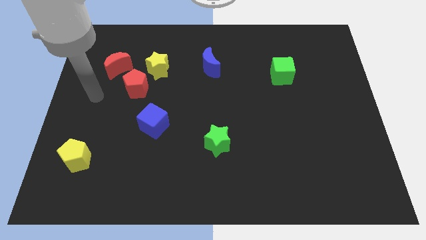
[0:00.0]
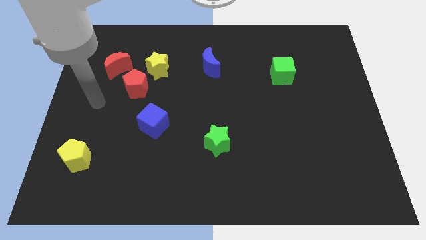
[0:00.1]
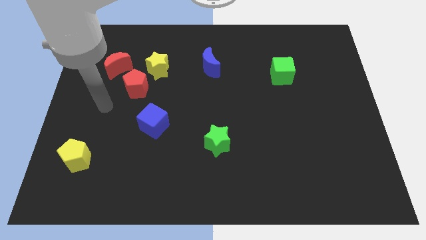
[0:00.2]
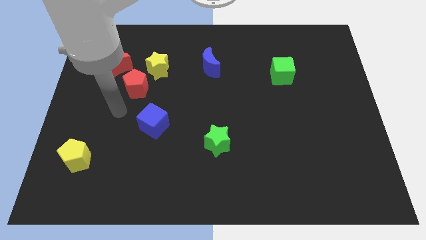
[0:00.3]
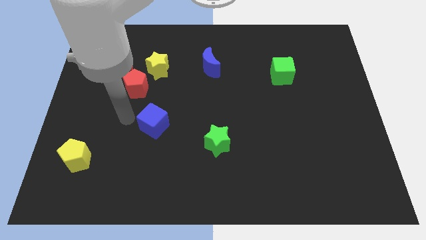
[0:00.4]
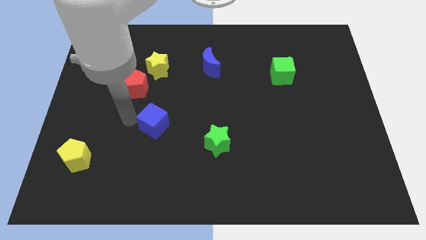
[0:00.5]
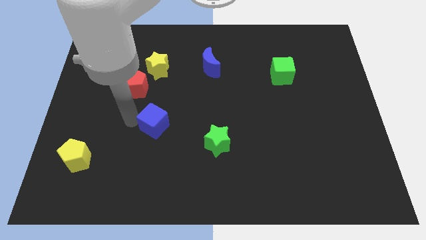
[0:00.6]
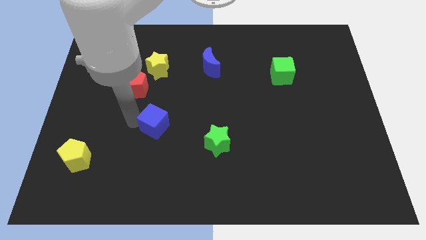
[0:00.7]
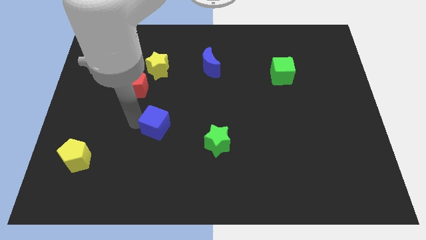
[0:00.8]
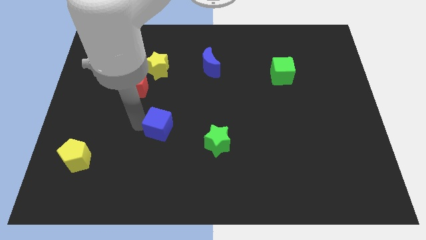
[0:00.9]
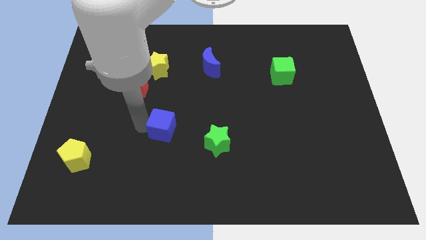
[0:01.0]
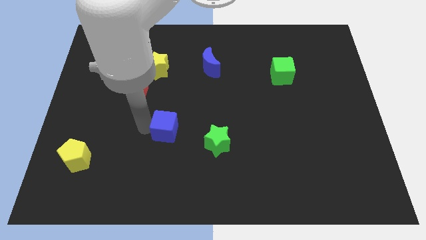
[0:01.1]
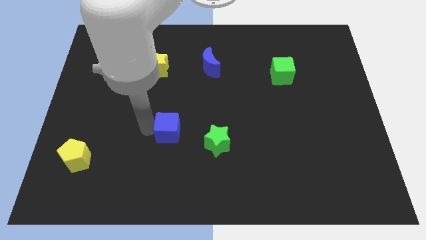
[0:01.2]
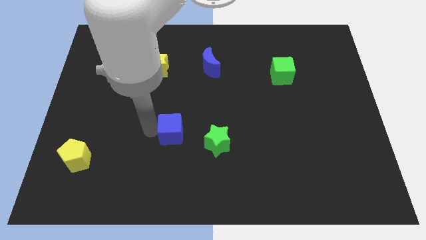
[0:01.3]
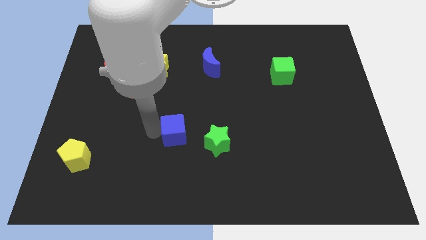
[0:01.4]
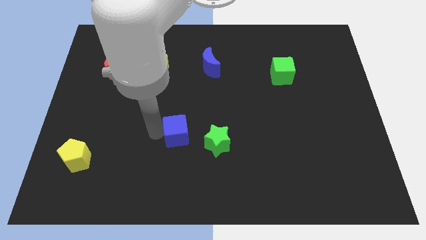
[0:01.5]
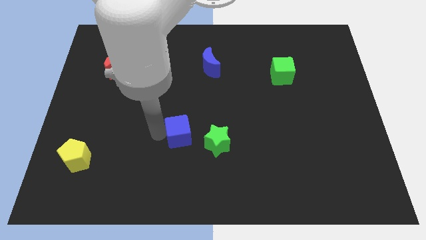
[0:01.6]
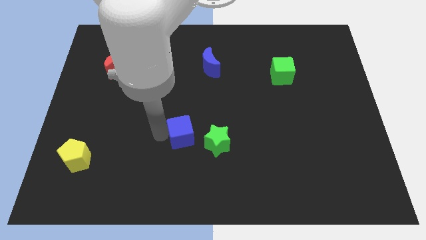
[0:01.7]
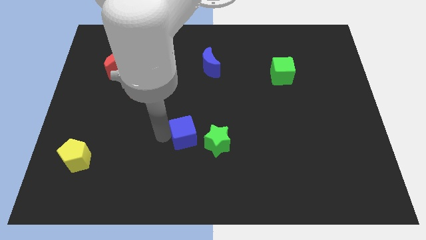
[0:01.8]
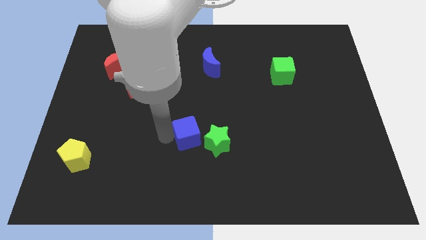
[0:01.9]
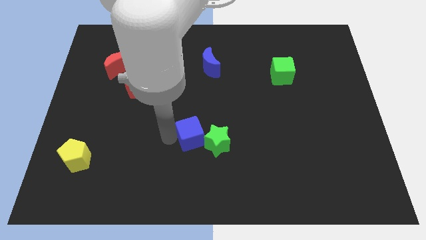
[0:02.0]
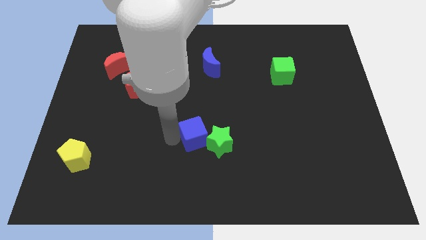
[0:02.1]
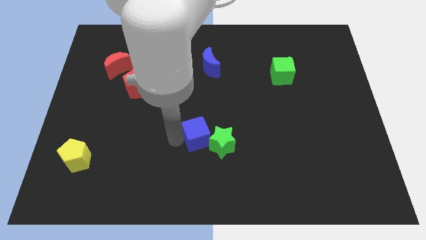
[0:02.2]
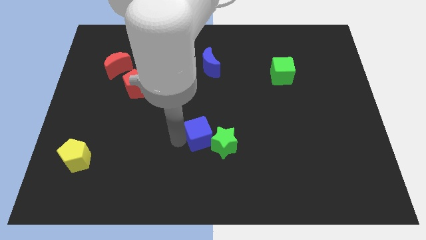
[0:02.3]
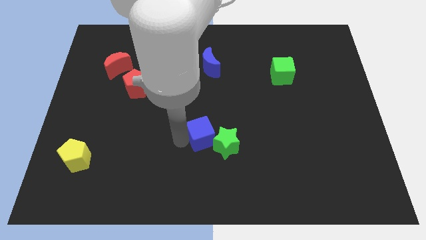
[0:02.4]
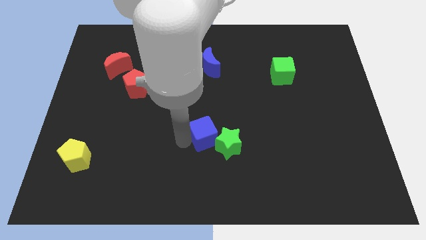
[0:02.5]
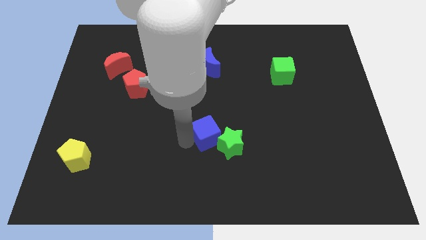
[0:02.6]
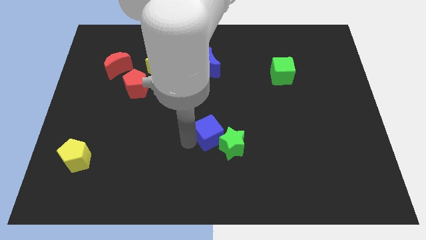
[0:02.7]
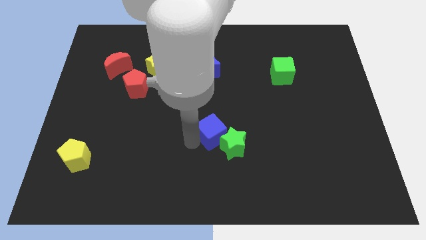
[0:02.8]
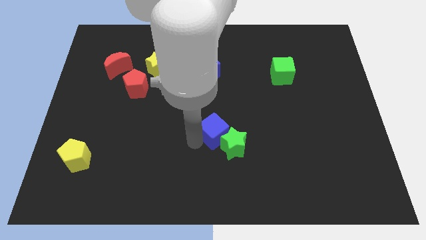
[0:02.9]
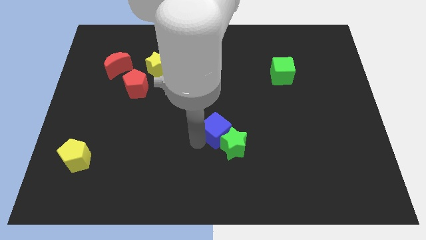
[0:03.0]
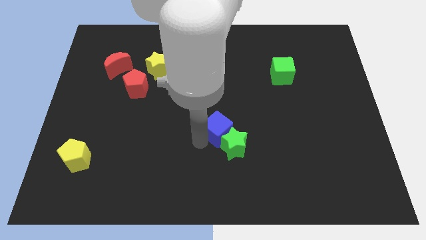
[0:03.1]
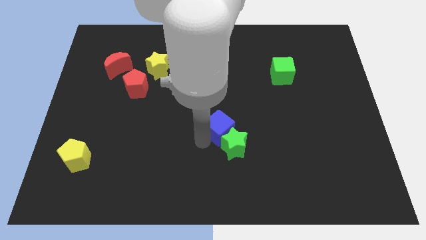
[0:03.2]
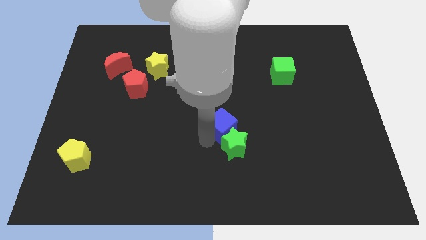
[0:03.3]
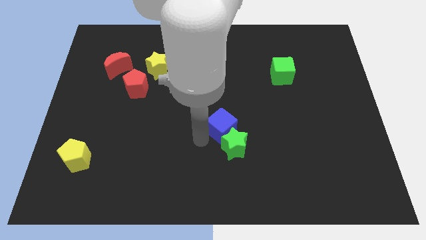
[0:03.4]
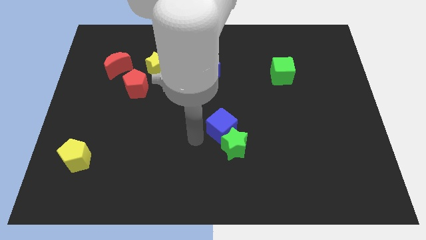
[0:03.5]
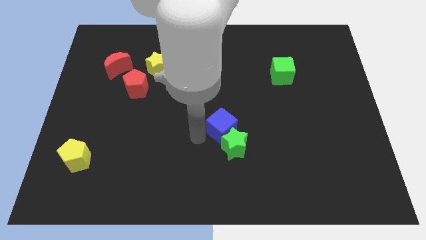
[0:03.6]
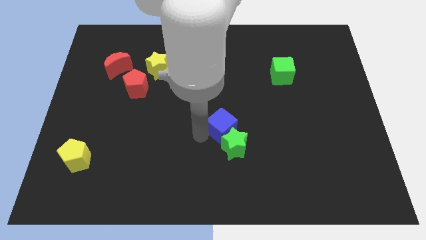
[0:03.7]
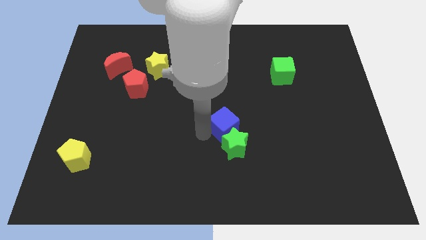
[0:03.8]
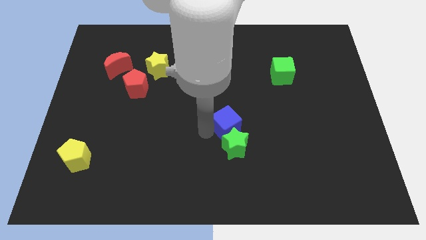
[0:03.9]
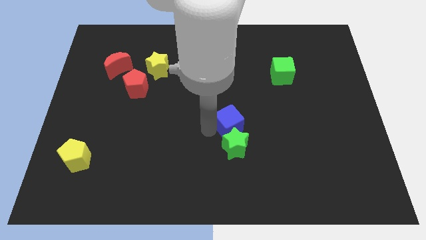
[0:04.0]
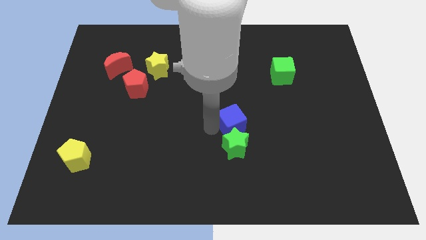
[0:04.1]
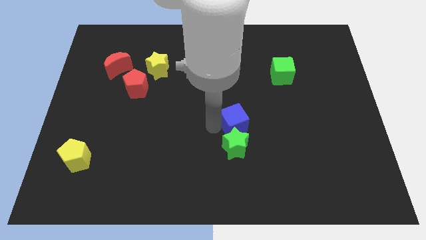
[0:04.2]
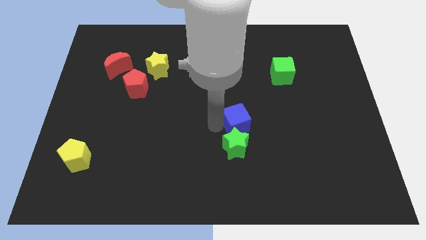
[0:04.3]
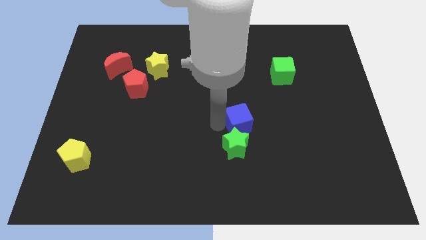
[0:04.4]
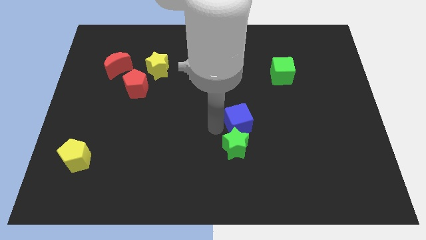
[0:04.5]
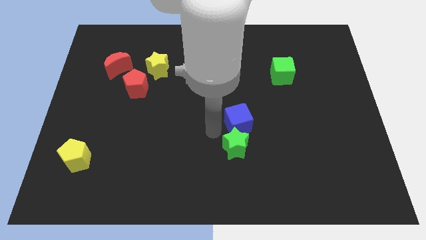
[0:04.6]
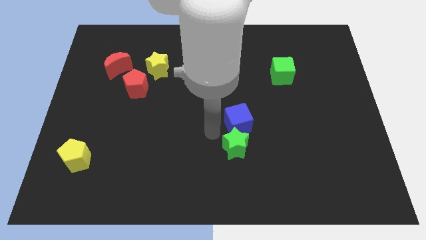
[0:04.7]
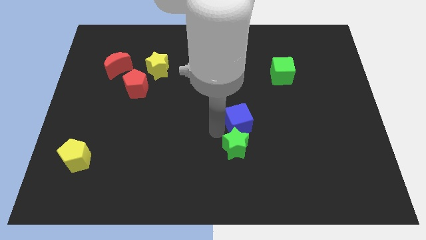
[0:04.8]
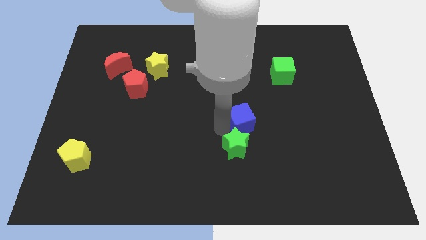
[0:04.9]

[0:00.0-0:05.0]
push the blue cube right

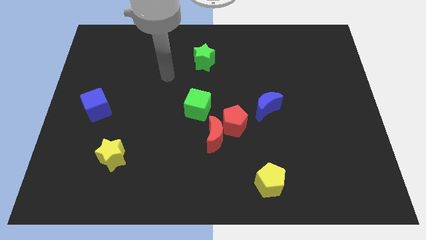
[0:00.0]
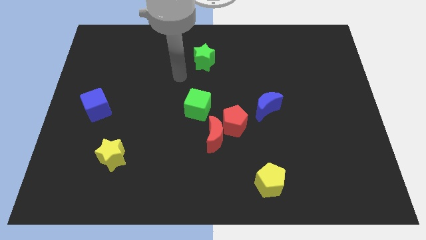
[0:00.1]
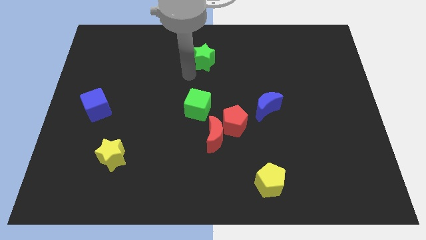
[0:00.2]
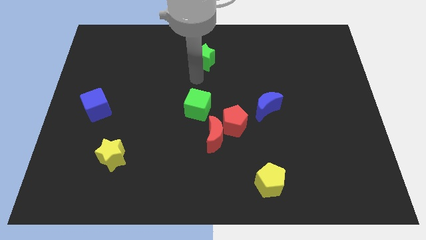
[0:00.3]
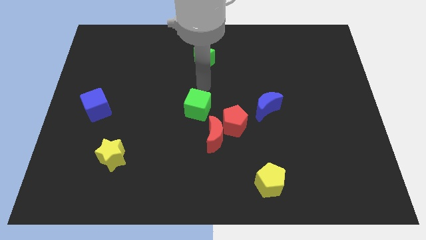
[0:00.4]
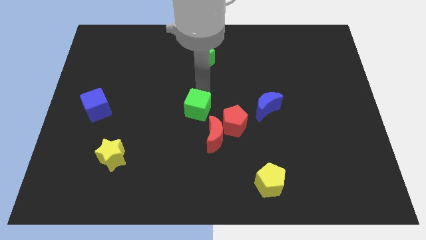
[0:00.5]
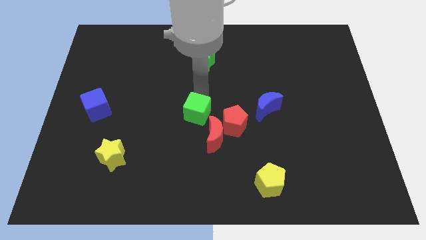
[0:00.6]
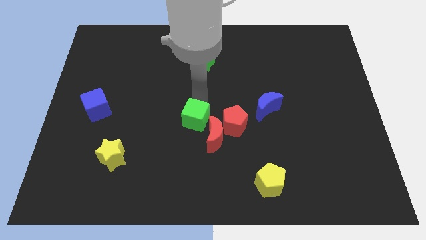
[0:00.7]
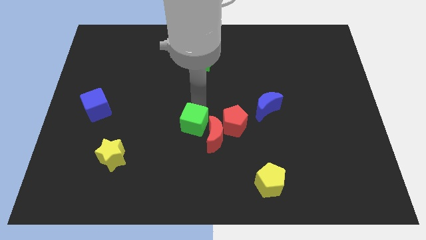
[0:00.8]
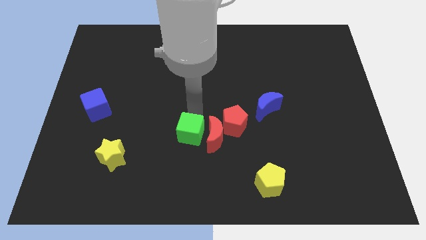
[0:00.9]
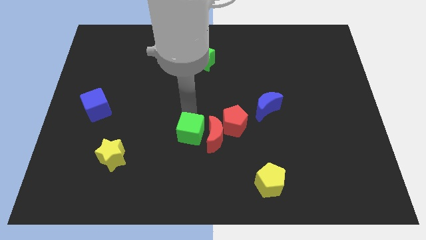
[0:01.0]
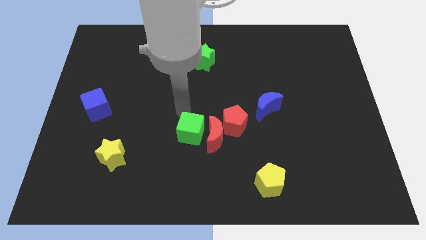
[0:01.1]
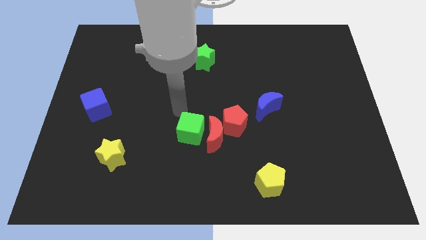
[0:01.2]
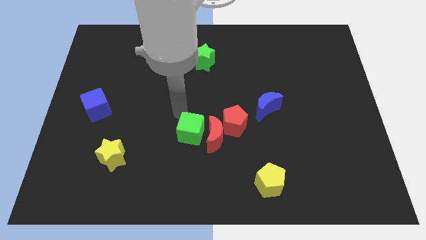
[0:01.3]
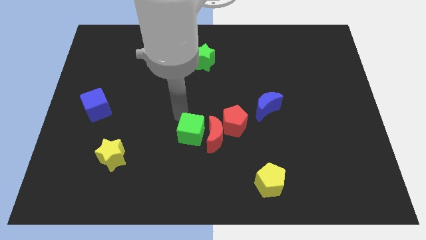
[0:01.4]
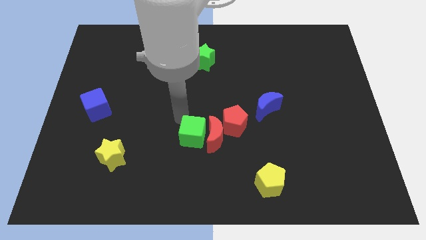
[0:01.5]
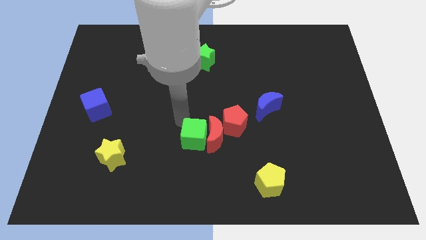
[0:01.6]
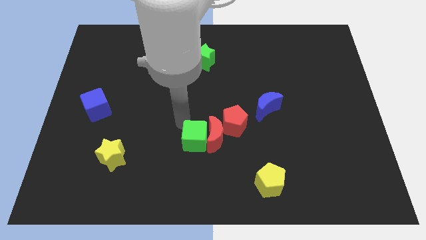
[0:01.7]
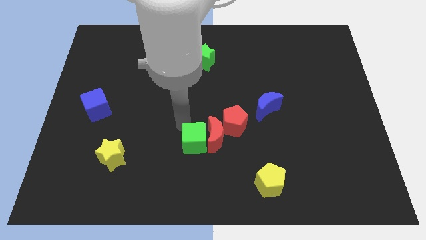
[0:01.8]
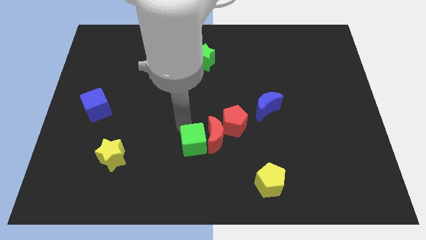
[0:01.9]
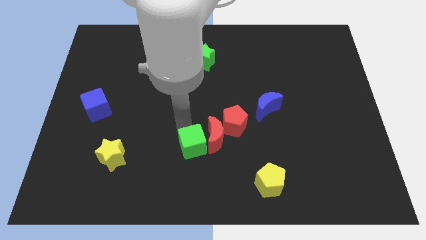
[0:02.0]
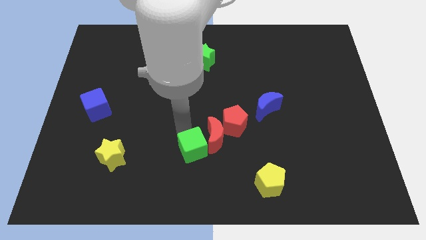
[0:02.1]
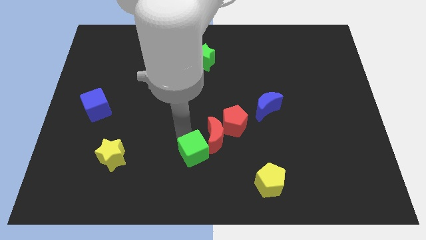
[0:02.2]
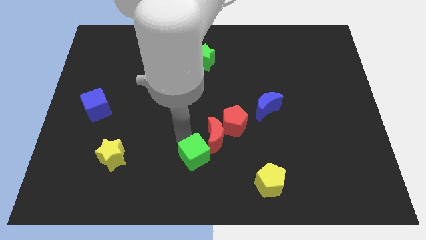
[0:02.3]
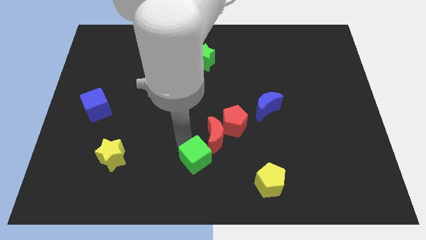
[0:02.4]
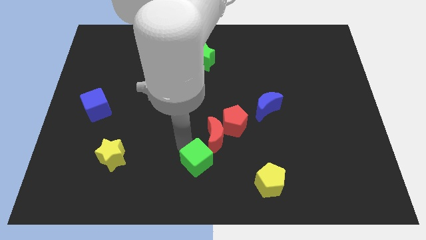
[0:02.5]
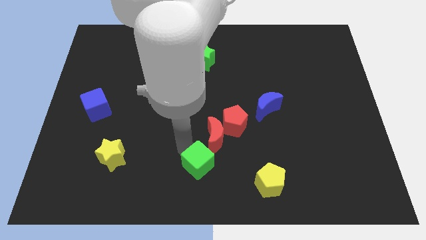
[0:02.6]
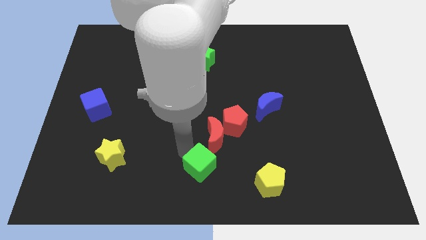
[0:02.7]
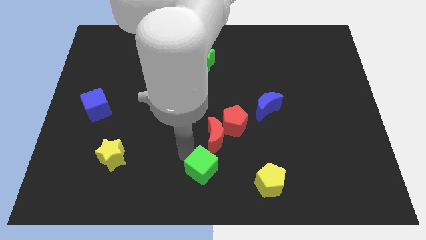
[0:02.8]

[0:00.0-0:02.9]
move the green cube down and right somewhat

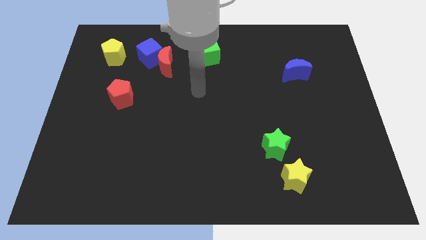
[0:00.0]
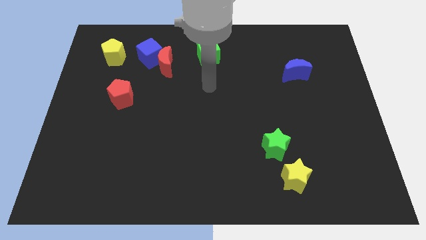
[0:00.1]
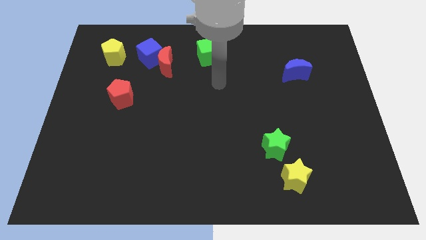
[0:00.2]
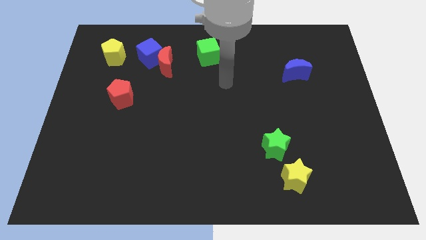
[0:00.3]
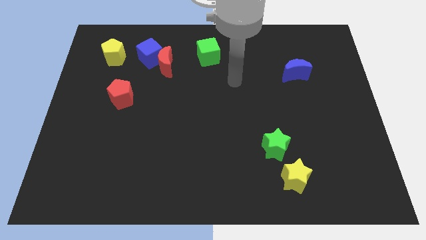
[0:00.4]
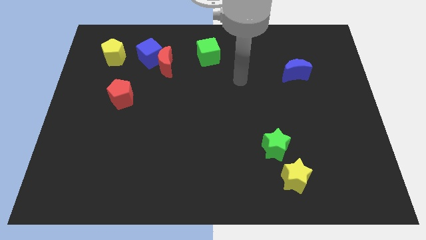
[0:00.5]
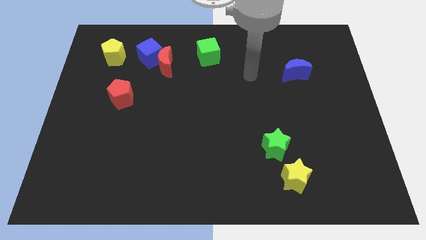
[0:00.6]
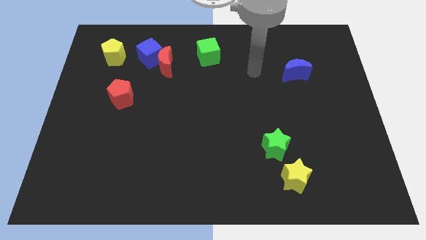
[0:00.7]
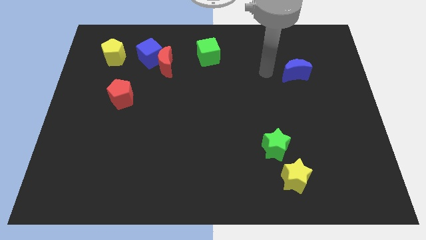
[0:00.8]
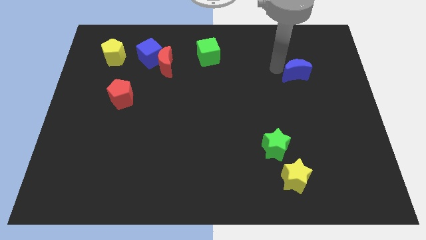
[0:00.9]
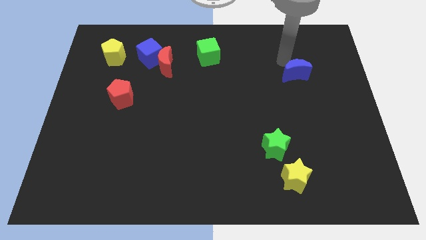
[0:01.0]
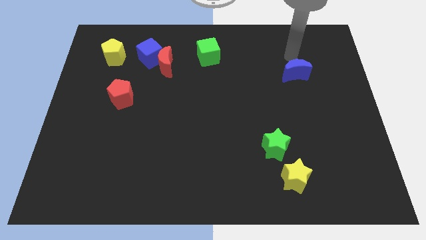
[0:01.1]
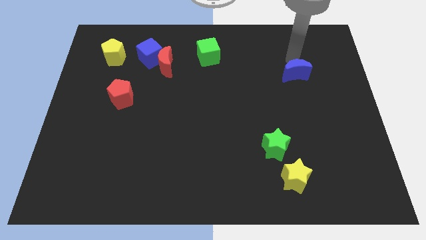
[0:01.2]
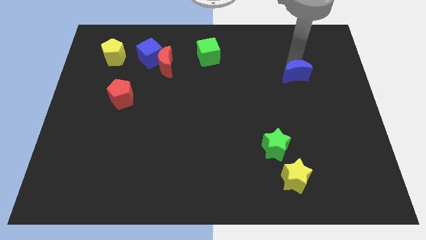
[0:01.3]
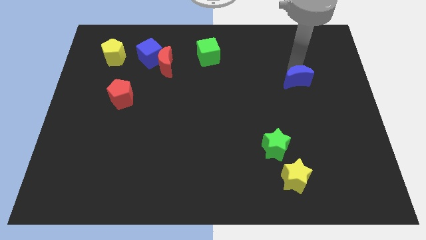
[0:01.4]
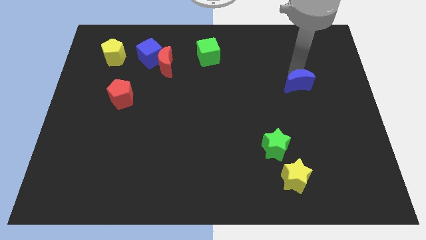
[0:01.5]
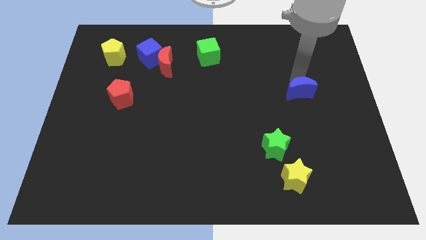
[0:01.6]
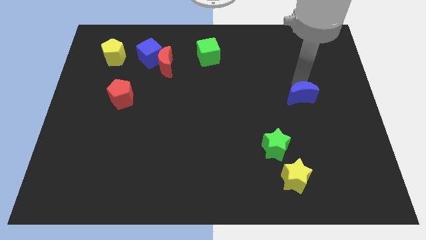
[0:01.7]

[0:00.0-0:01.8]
move the blue moon a bit down
